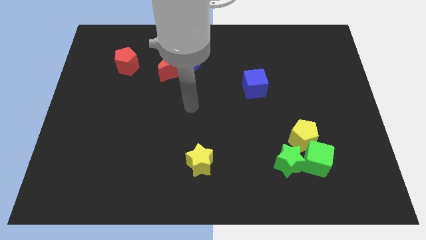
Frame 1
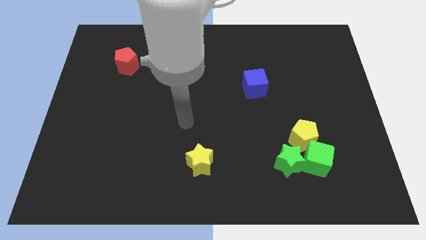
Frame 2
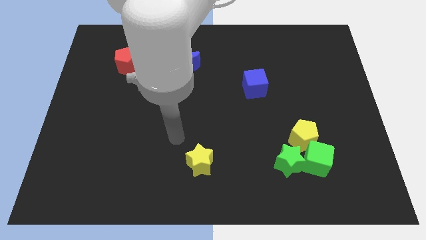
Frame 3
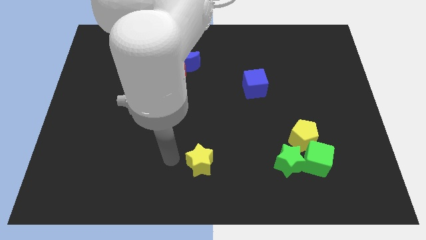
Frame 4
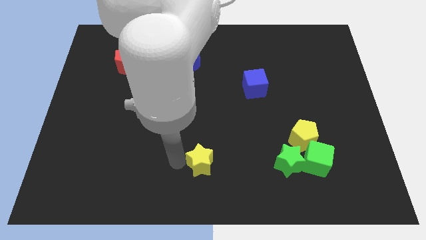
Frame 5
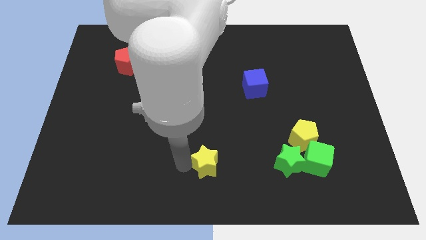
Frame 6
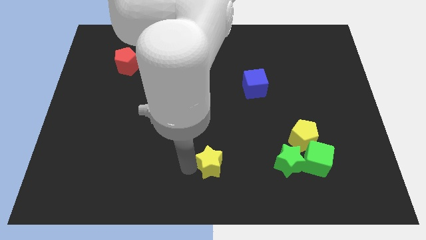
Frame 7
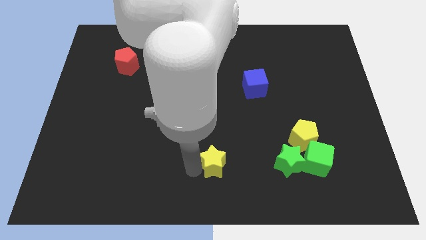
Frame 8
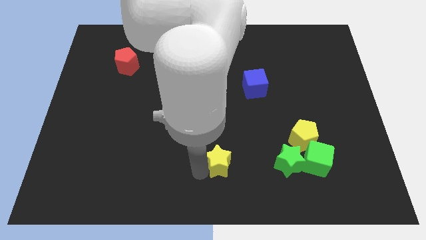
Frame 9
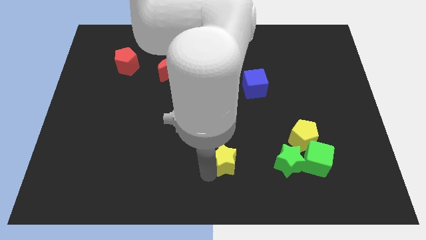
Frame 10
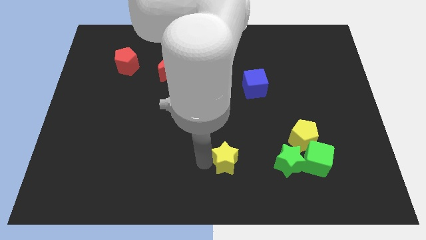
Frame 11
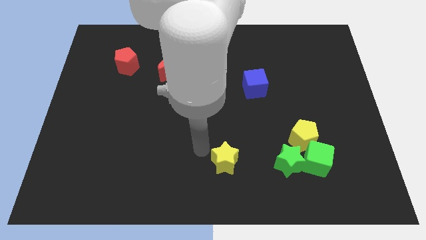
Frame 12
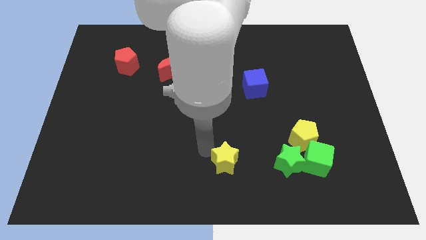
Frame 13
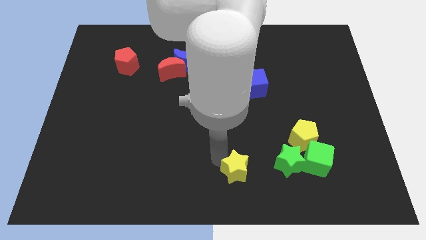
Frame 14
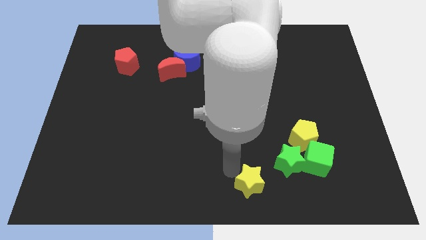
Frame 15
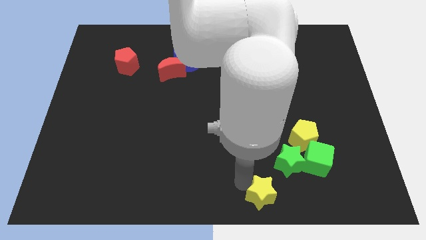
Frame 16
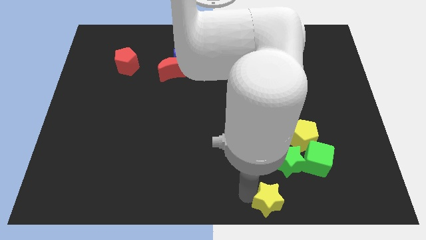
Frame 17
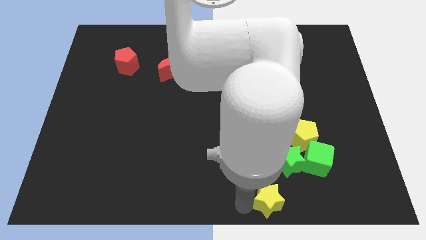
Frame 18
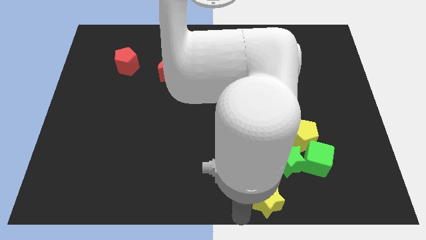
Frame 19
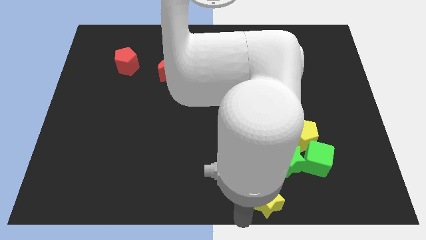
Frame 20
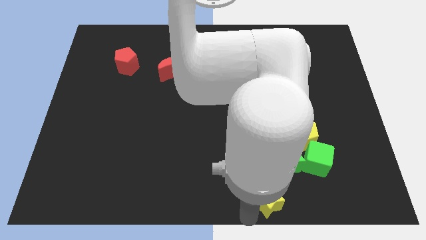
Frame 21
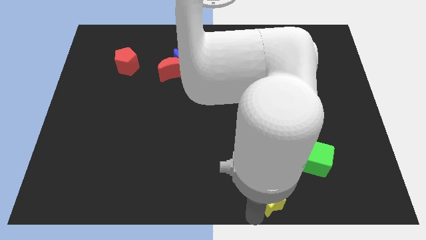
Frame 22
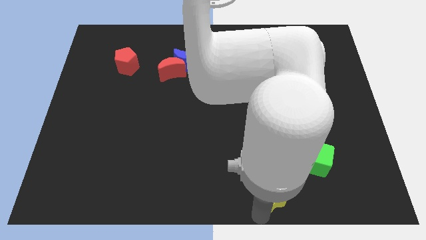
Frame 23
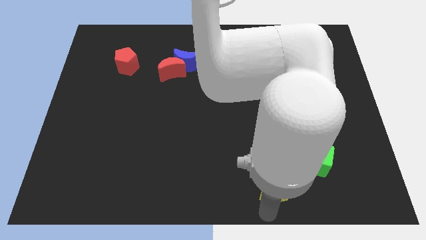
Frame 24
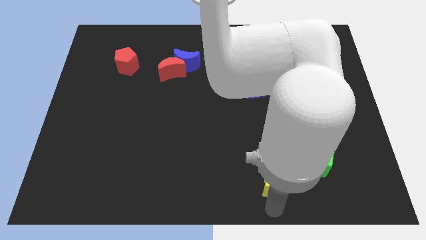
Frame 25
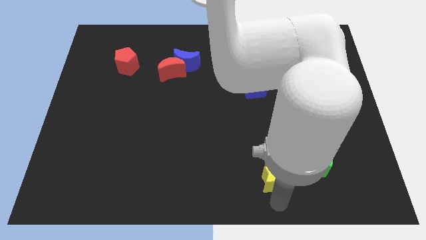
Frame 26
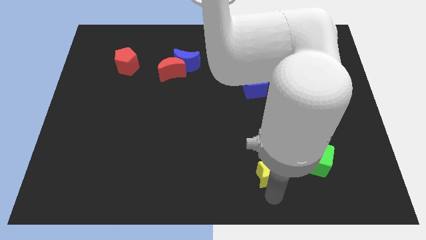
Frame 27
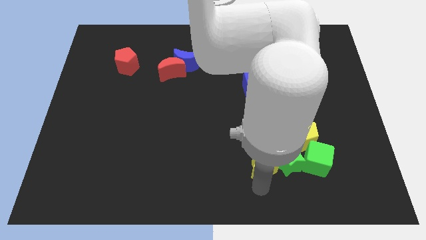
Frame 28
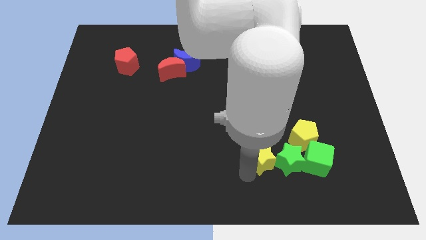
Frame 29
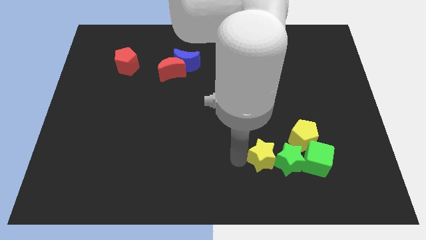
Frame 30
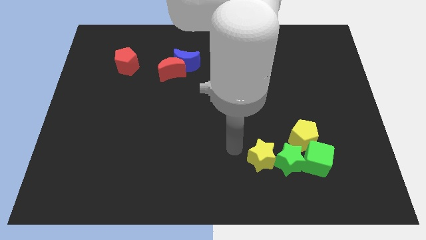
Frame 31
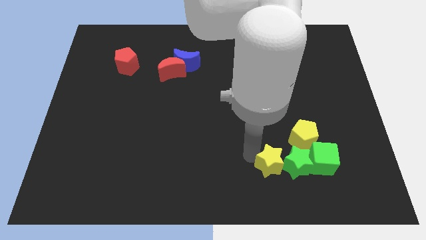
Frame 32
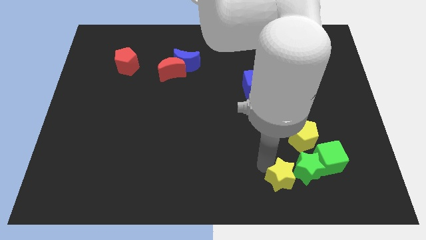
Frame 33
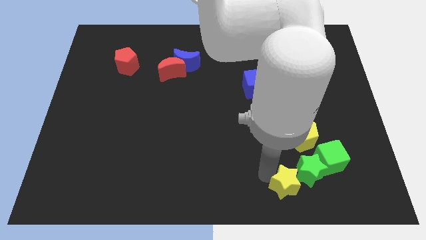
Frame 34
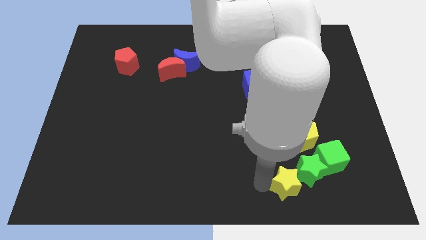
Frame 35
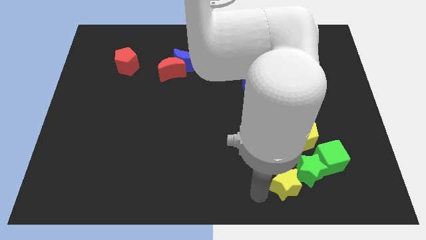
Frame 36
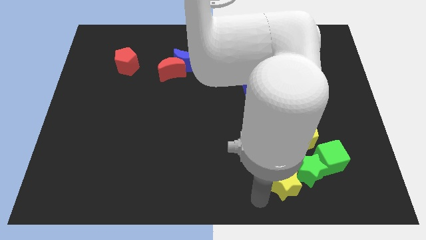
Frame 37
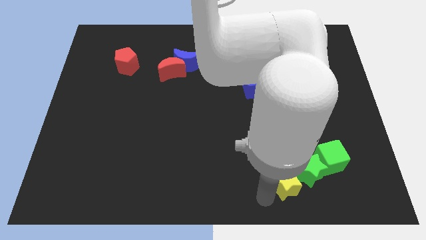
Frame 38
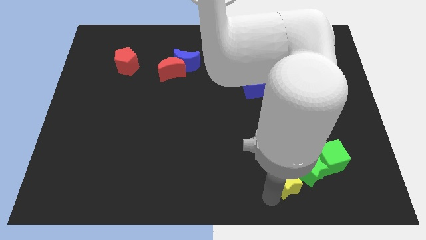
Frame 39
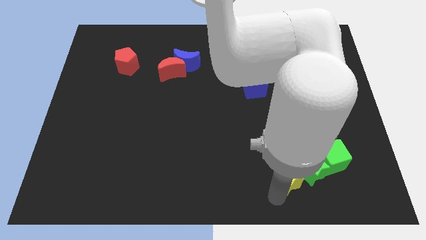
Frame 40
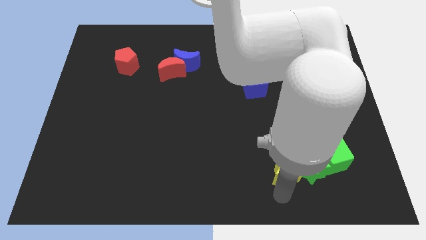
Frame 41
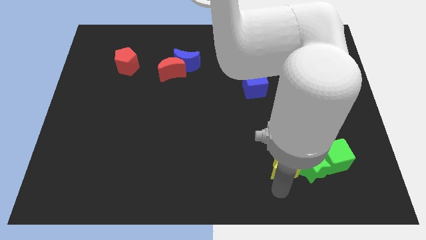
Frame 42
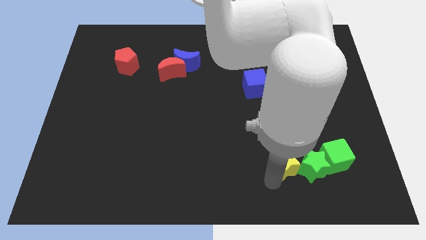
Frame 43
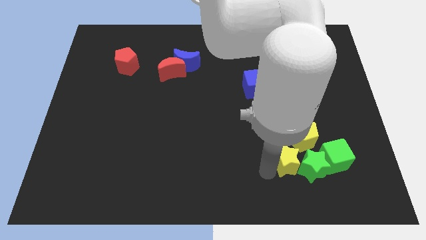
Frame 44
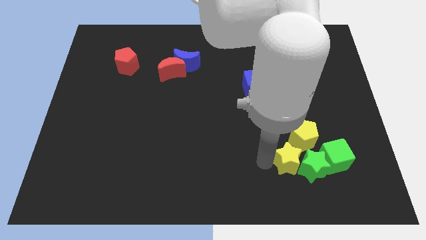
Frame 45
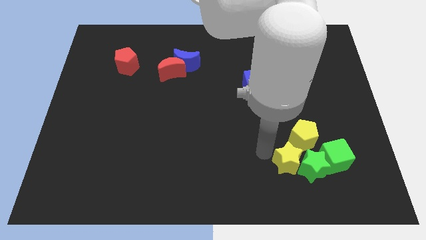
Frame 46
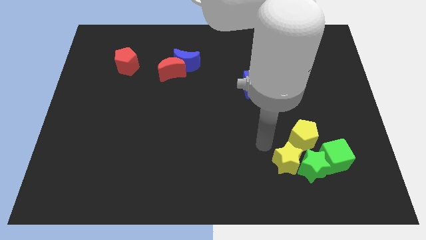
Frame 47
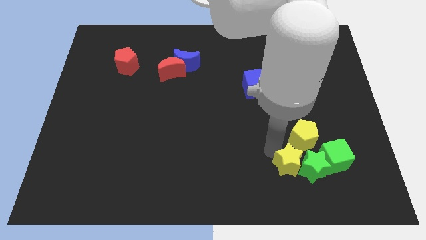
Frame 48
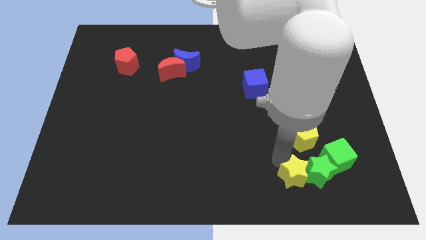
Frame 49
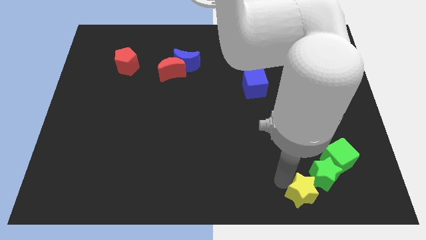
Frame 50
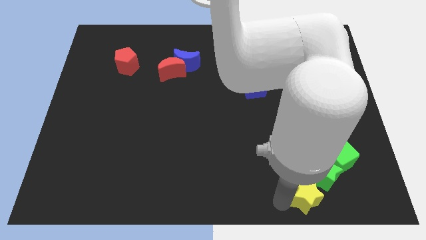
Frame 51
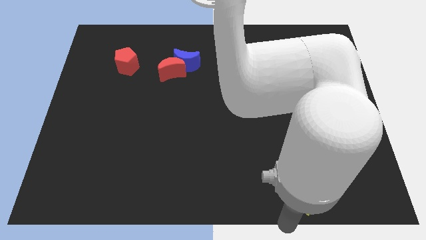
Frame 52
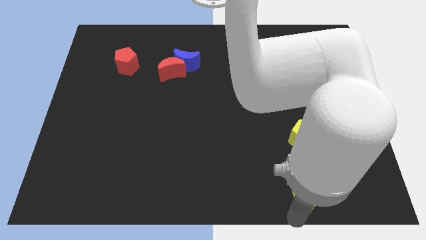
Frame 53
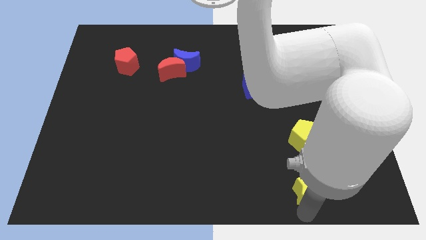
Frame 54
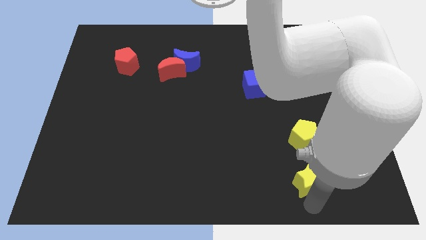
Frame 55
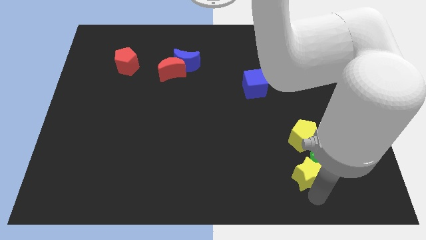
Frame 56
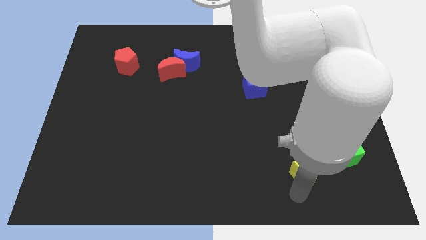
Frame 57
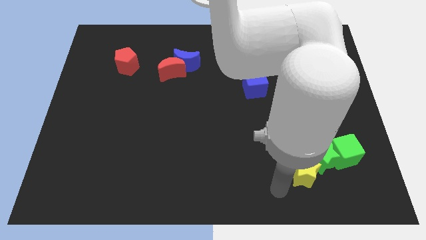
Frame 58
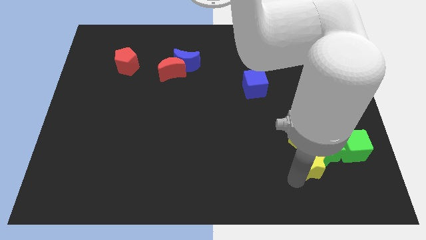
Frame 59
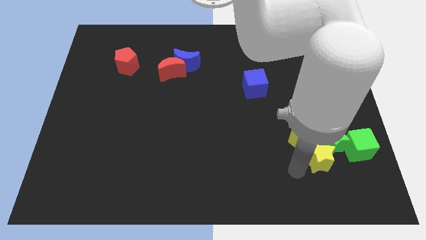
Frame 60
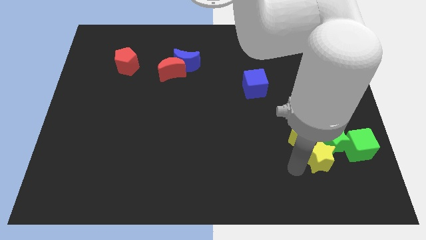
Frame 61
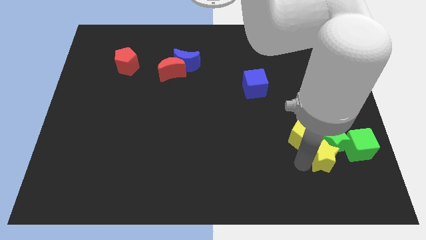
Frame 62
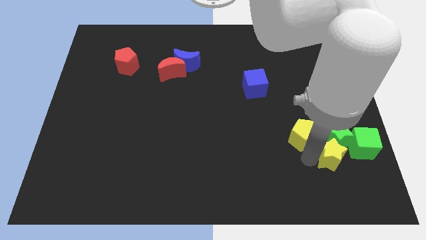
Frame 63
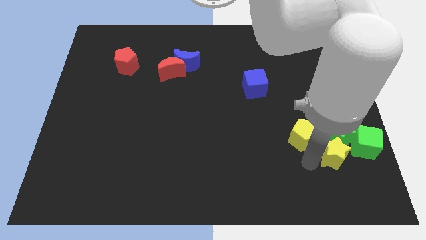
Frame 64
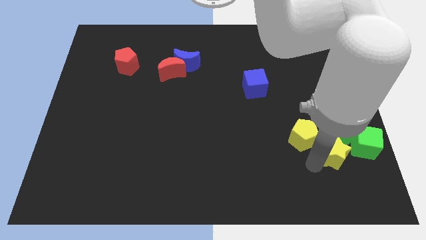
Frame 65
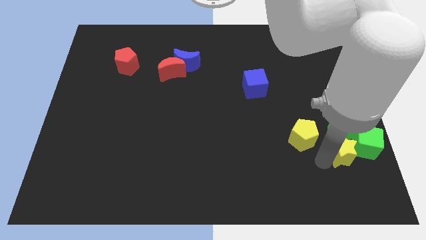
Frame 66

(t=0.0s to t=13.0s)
put the yellow star next to the green cube

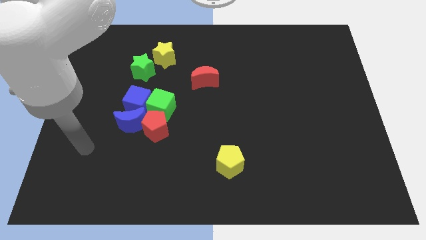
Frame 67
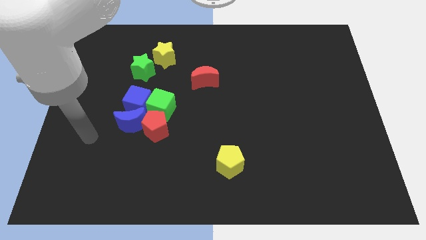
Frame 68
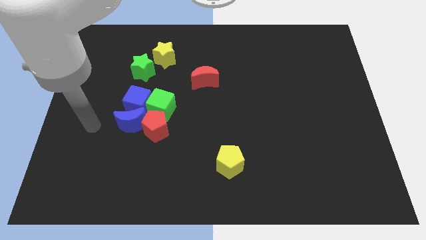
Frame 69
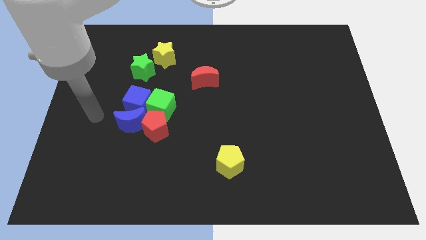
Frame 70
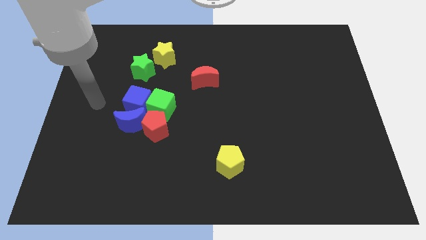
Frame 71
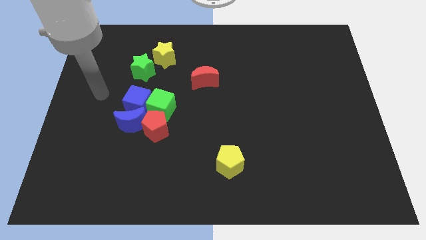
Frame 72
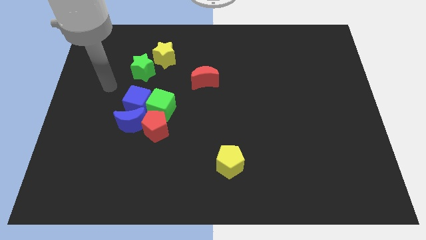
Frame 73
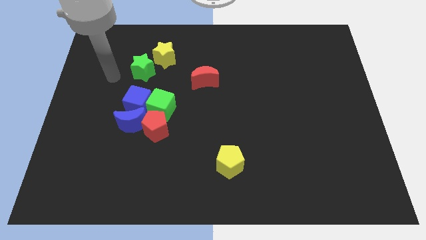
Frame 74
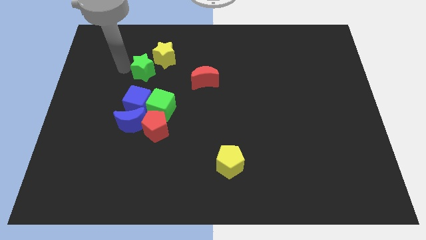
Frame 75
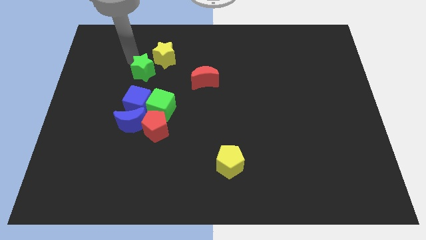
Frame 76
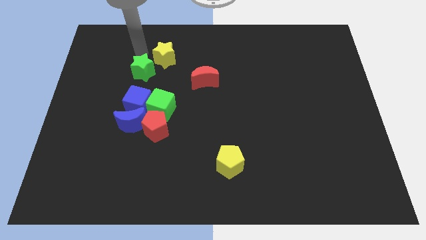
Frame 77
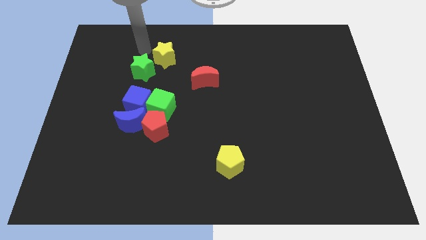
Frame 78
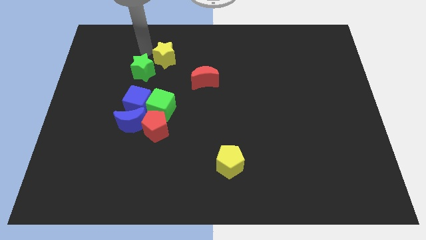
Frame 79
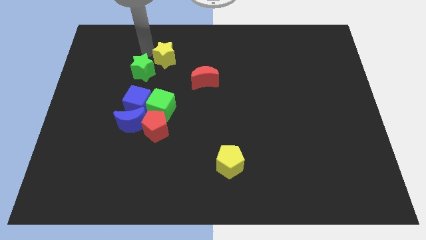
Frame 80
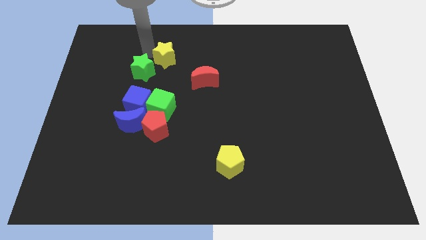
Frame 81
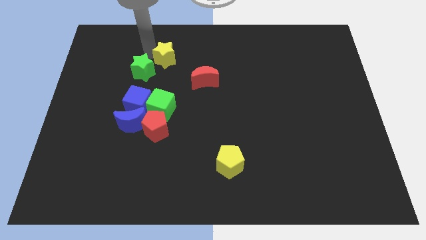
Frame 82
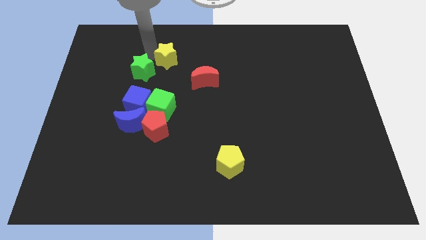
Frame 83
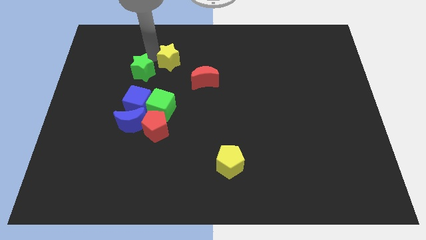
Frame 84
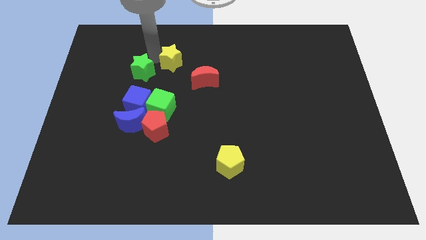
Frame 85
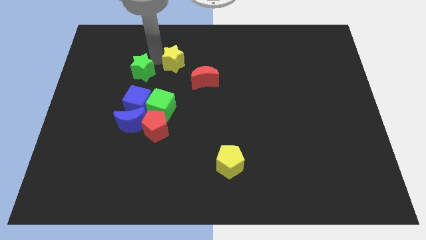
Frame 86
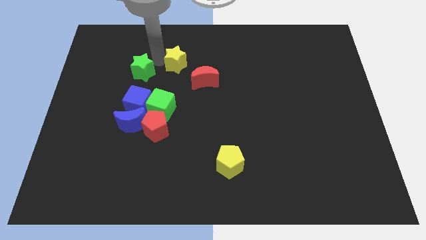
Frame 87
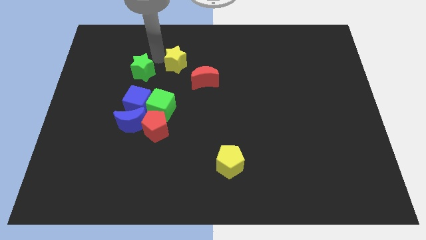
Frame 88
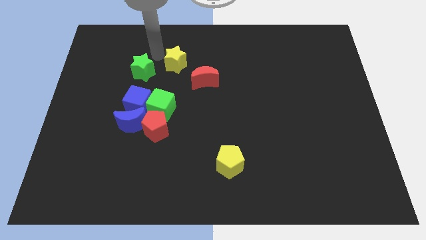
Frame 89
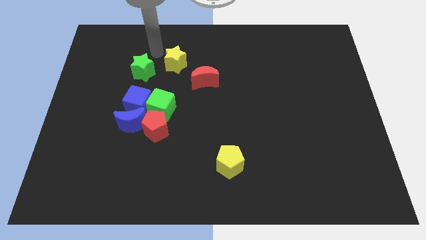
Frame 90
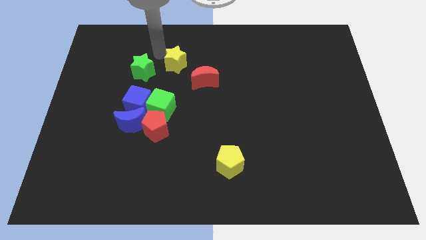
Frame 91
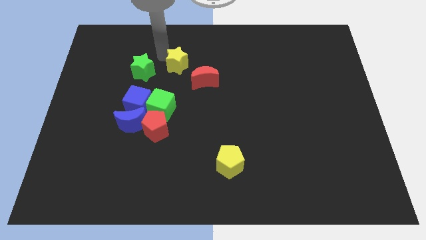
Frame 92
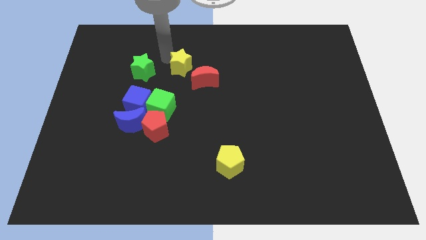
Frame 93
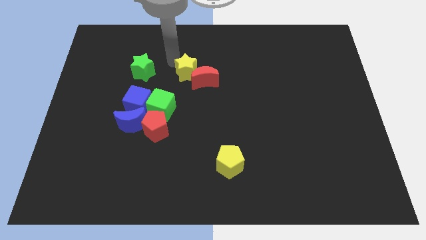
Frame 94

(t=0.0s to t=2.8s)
put the yellow star next to the red moon
